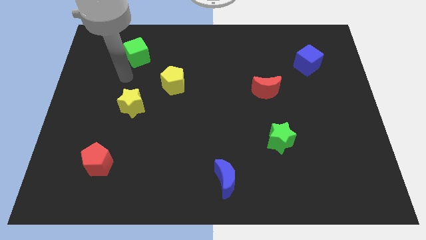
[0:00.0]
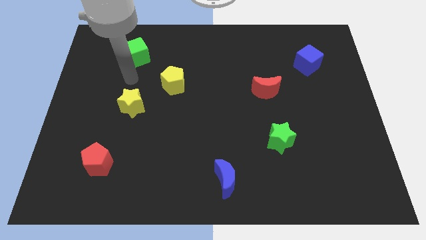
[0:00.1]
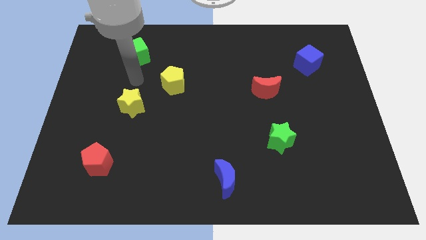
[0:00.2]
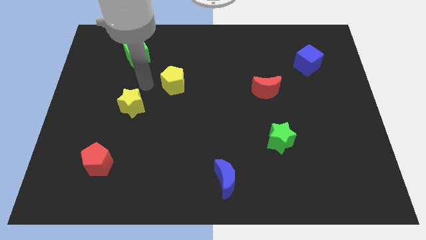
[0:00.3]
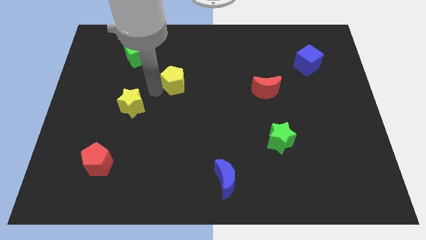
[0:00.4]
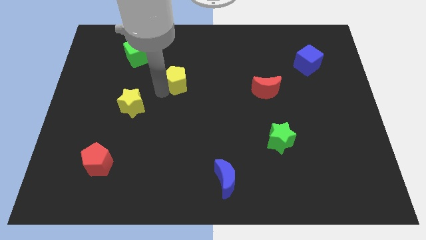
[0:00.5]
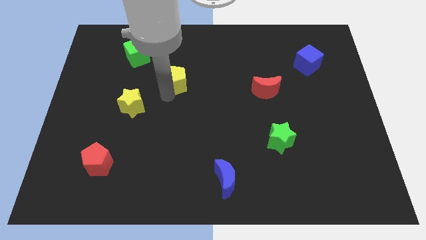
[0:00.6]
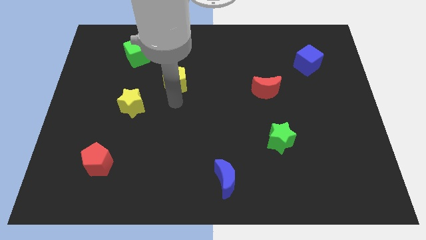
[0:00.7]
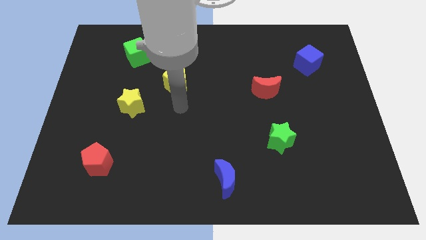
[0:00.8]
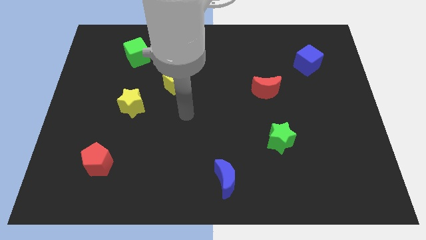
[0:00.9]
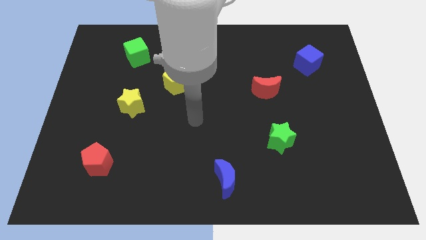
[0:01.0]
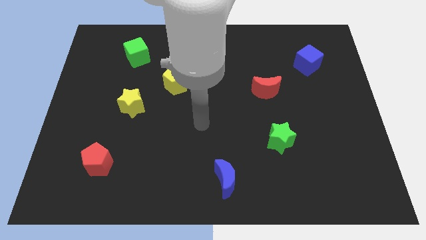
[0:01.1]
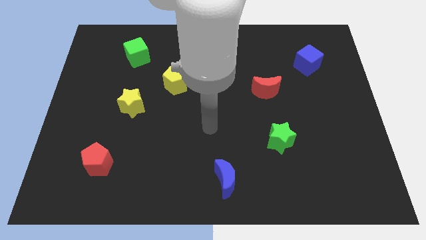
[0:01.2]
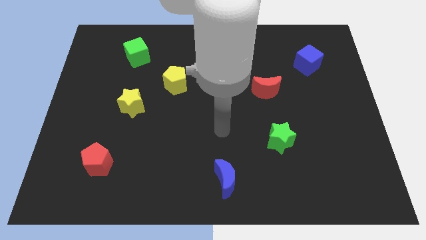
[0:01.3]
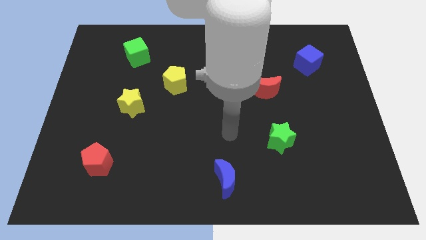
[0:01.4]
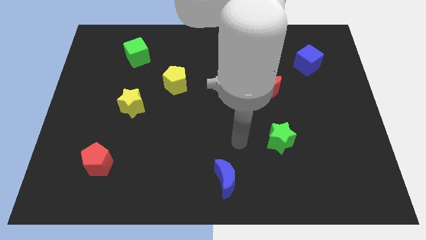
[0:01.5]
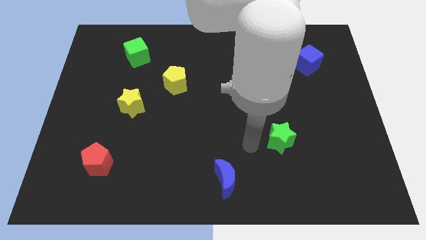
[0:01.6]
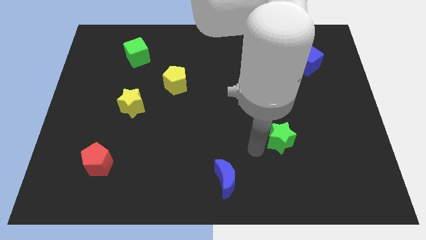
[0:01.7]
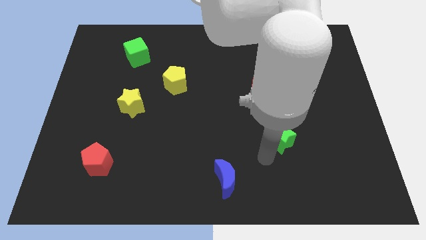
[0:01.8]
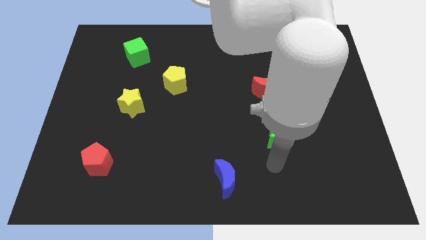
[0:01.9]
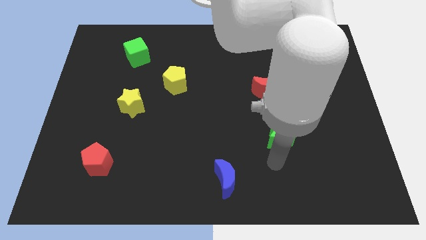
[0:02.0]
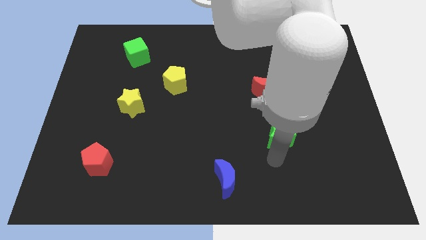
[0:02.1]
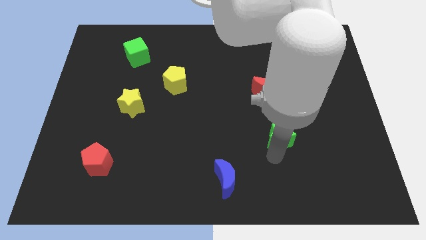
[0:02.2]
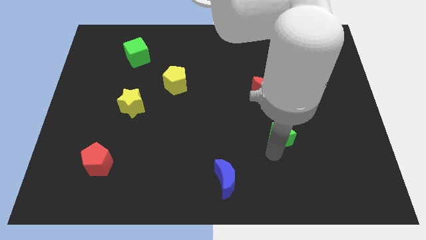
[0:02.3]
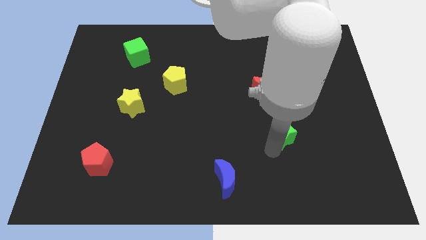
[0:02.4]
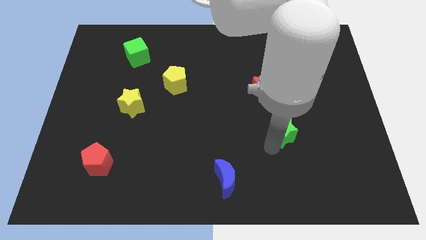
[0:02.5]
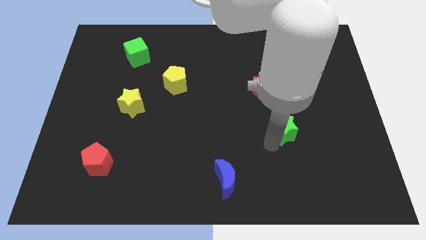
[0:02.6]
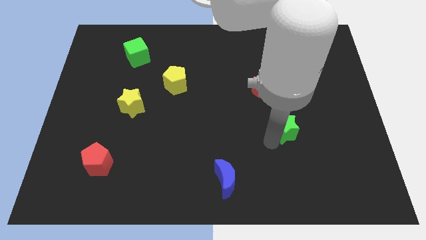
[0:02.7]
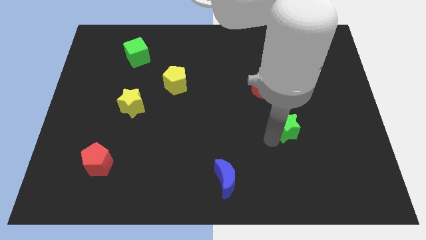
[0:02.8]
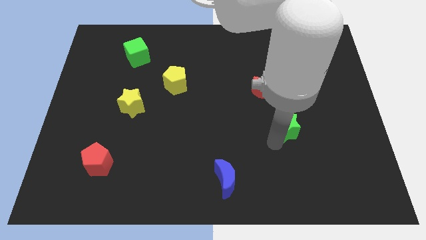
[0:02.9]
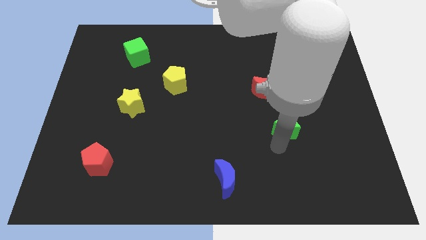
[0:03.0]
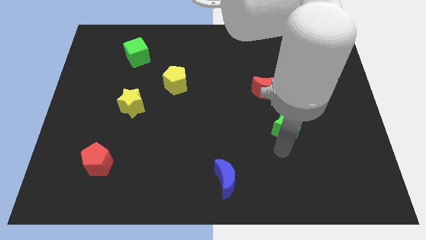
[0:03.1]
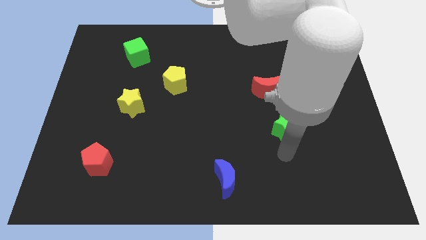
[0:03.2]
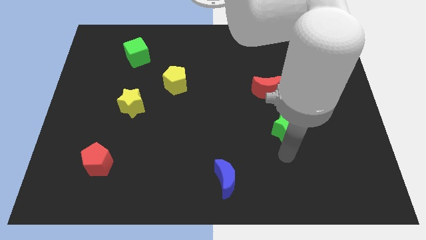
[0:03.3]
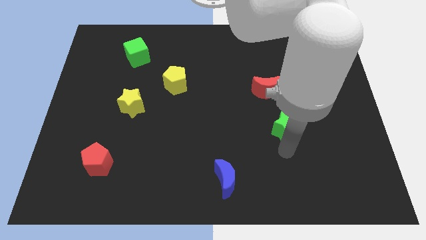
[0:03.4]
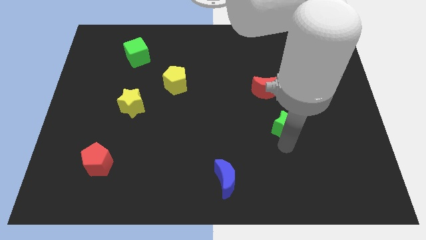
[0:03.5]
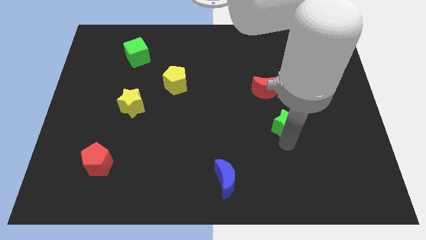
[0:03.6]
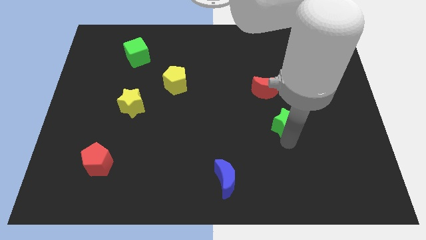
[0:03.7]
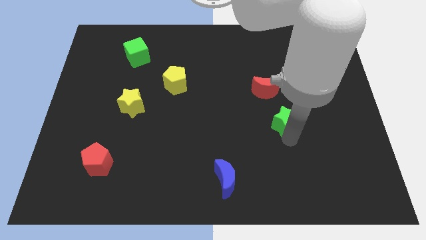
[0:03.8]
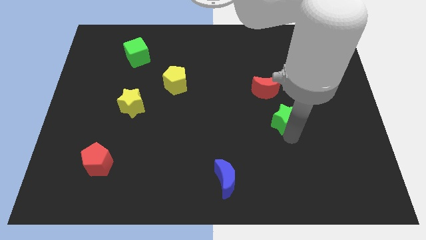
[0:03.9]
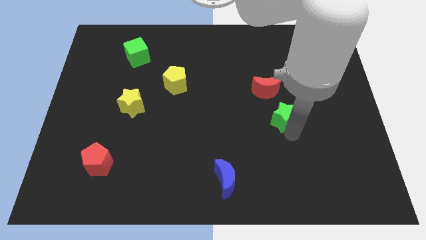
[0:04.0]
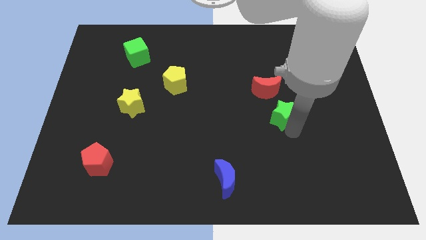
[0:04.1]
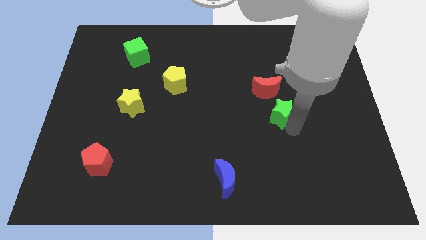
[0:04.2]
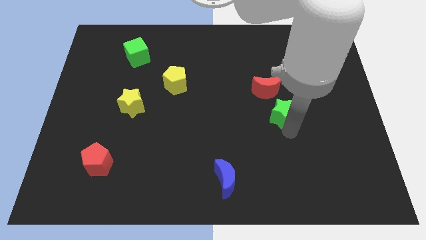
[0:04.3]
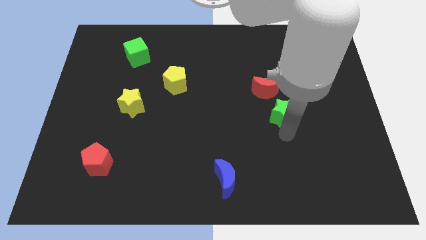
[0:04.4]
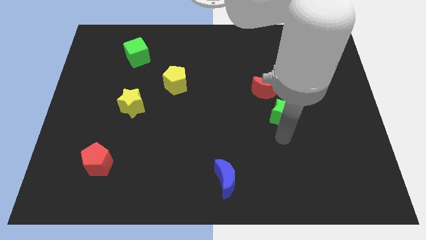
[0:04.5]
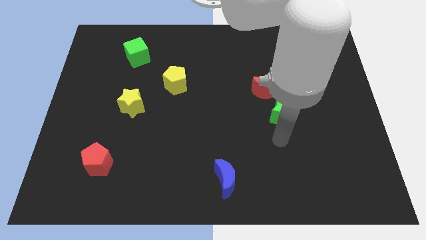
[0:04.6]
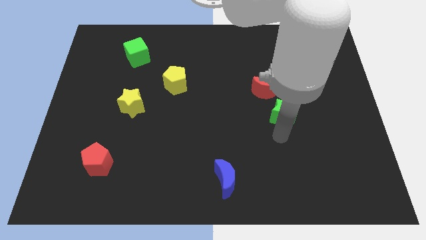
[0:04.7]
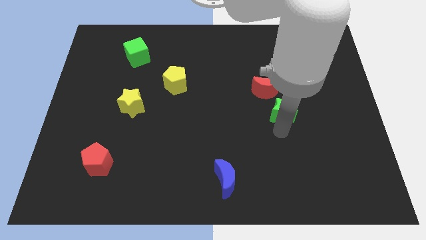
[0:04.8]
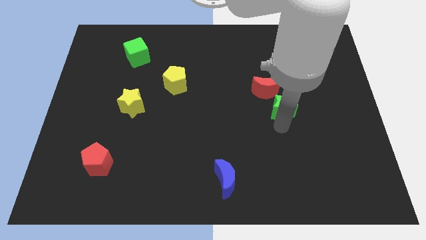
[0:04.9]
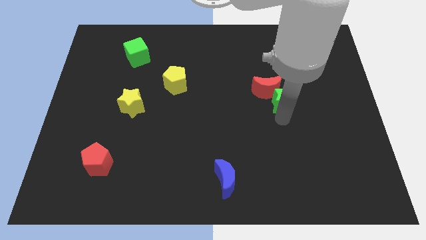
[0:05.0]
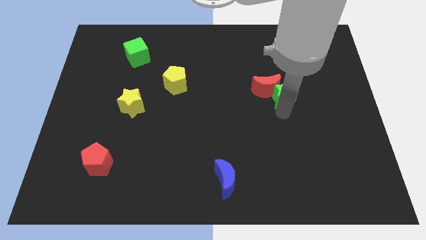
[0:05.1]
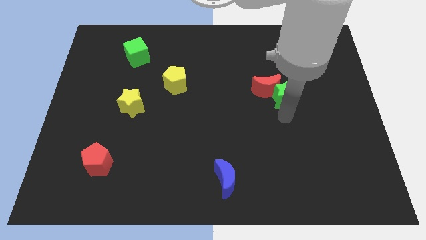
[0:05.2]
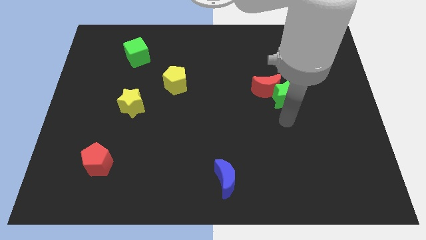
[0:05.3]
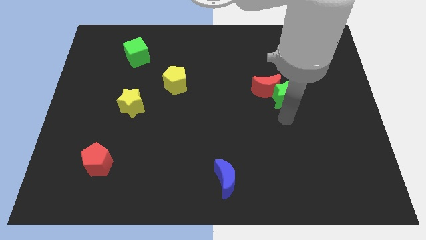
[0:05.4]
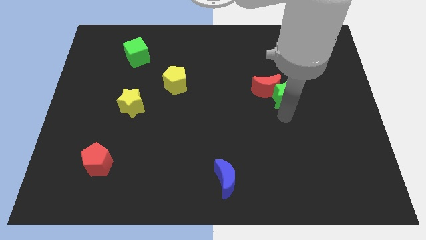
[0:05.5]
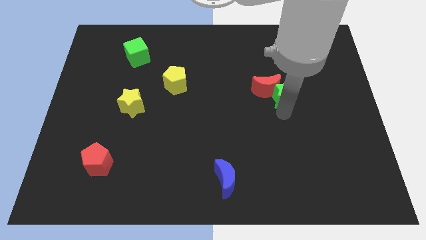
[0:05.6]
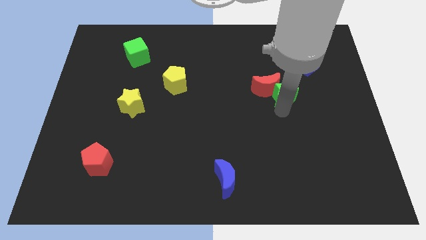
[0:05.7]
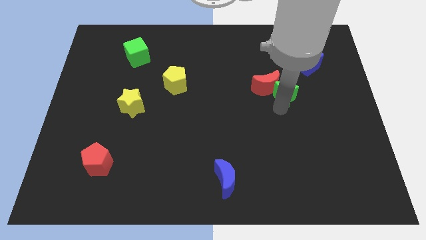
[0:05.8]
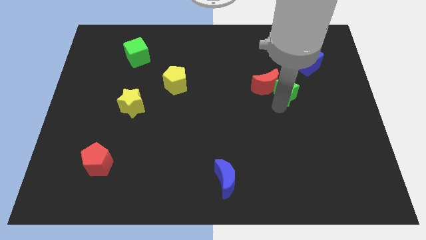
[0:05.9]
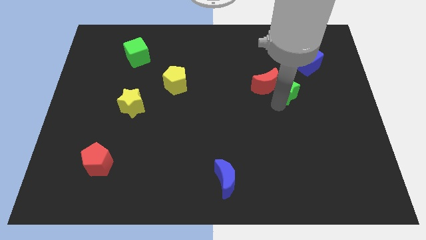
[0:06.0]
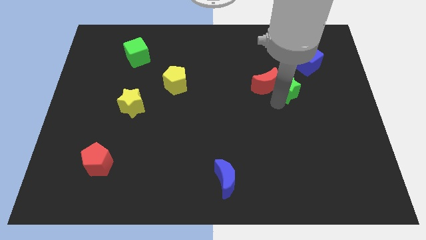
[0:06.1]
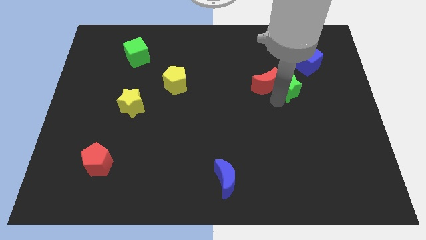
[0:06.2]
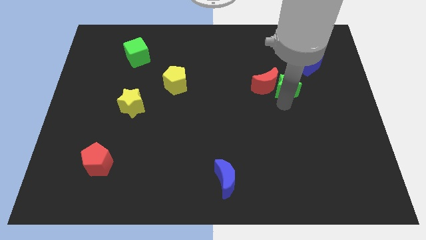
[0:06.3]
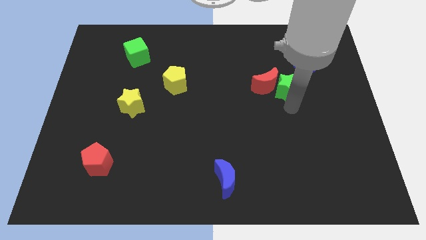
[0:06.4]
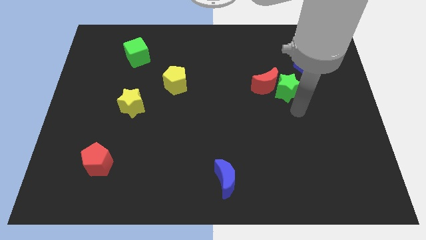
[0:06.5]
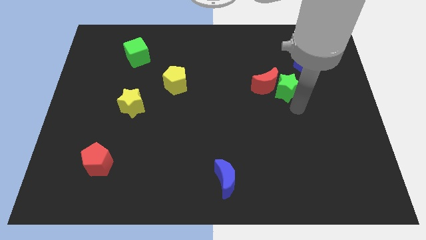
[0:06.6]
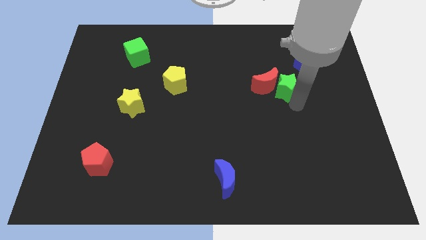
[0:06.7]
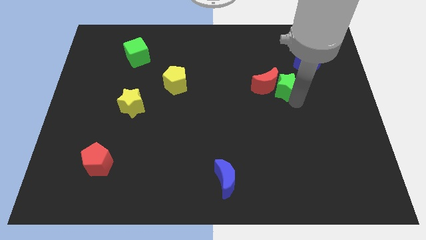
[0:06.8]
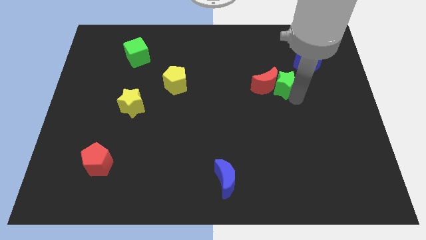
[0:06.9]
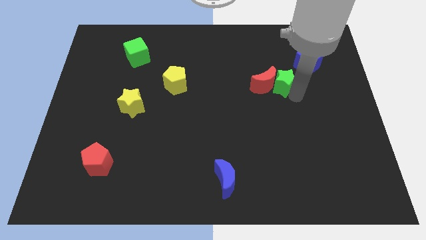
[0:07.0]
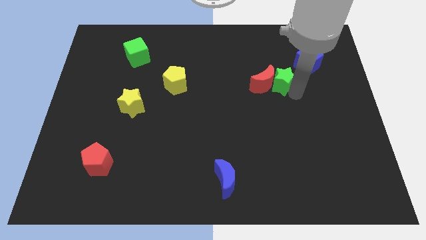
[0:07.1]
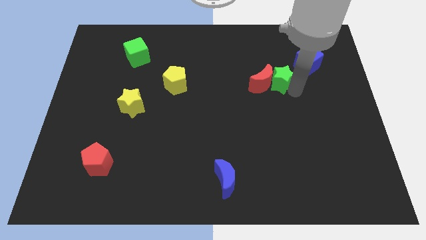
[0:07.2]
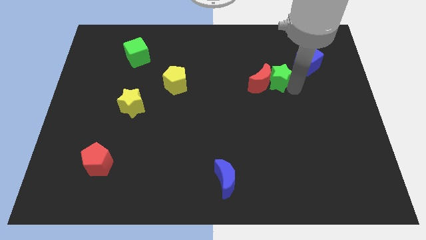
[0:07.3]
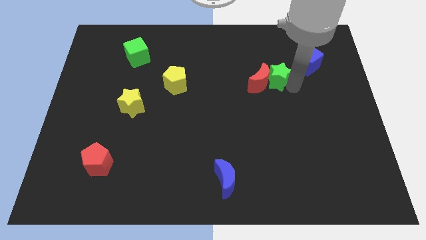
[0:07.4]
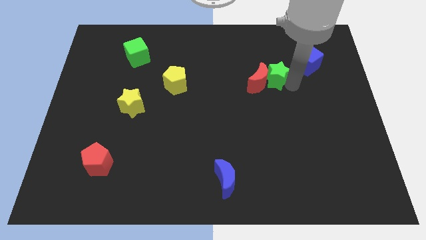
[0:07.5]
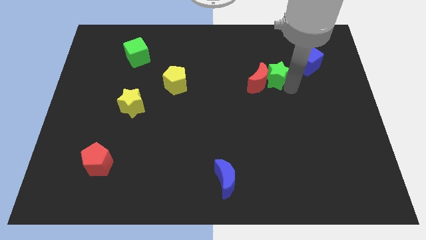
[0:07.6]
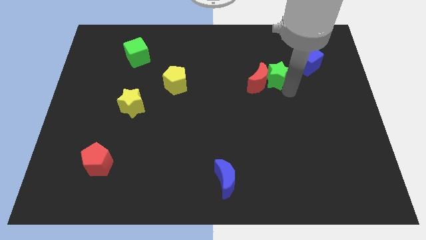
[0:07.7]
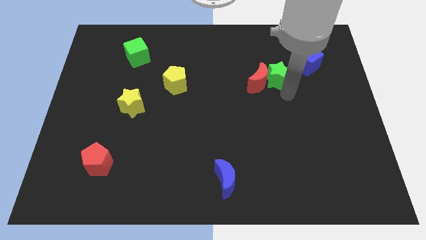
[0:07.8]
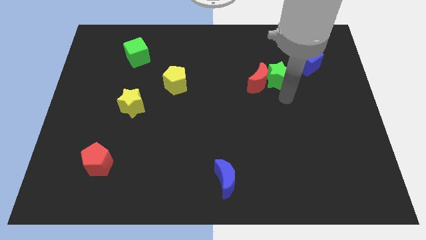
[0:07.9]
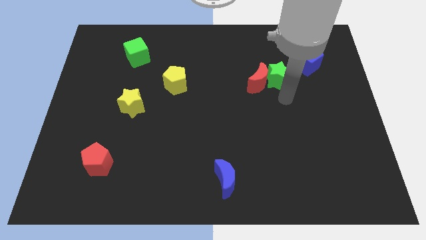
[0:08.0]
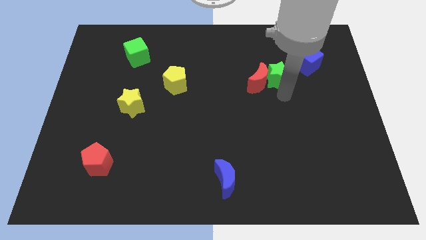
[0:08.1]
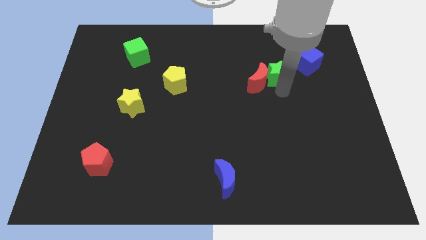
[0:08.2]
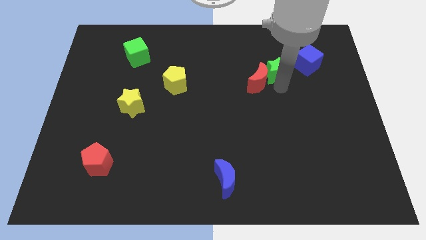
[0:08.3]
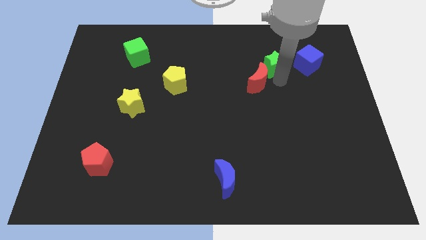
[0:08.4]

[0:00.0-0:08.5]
slide the green star to the top of the red moon
